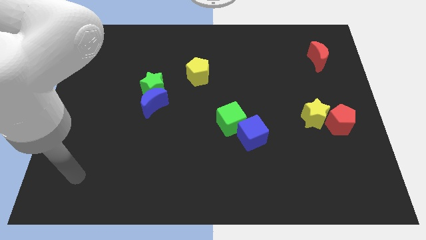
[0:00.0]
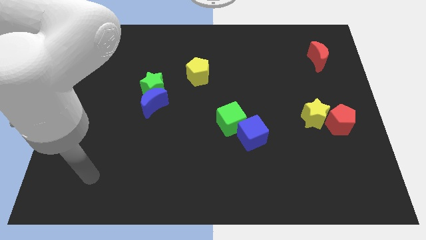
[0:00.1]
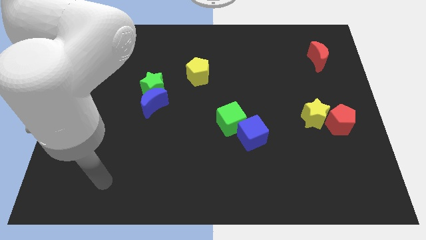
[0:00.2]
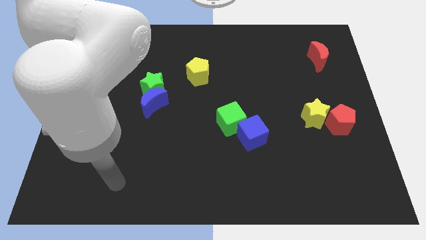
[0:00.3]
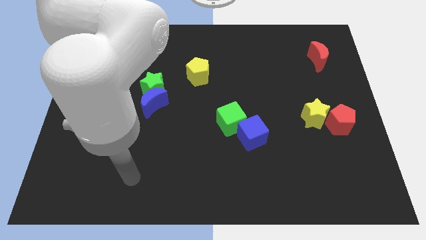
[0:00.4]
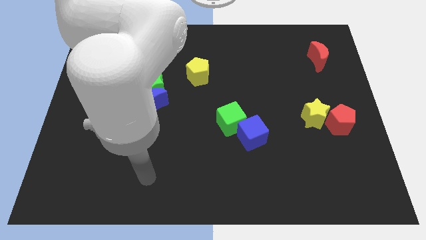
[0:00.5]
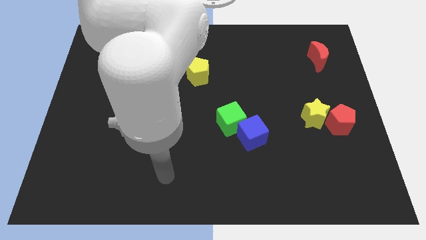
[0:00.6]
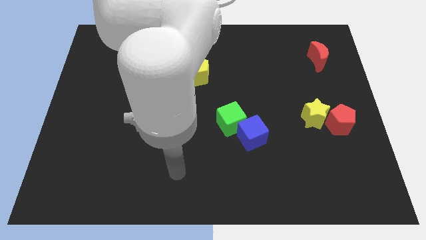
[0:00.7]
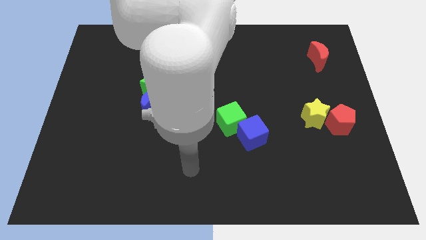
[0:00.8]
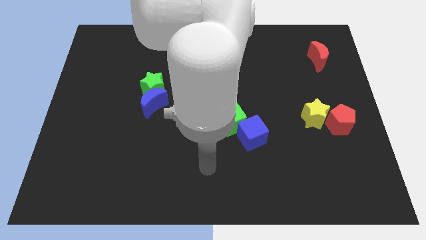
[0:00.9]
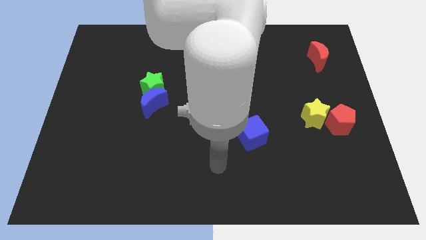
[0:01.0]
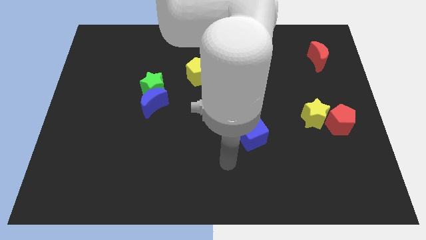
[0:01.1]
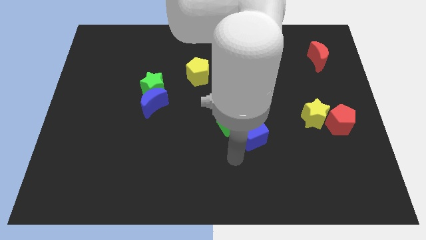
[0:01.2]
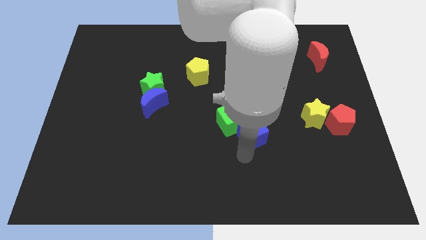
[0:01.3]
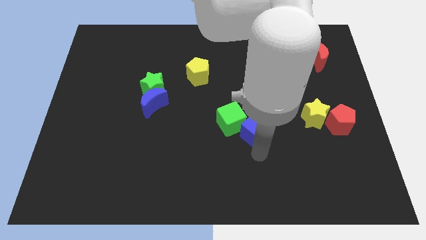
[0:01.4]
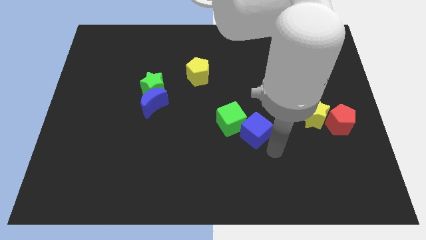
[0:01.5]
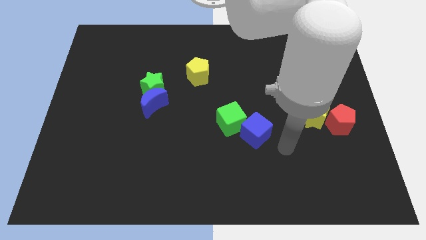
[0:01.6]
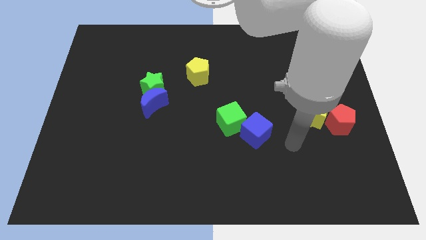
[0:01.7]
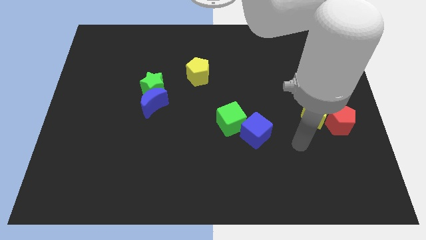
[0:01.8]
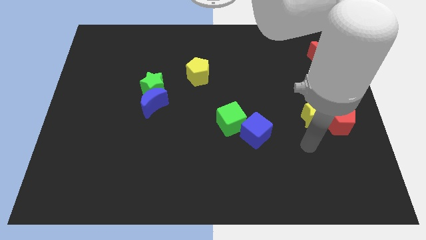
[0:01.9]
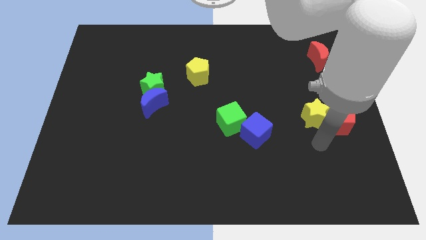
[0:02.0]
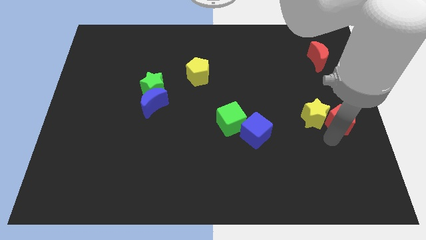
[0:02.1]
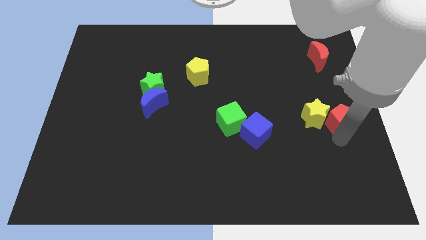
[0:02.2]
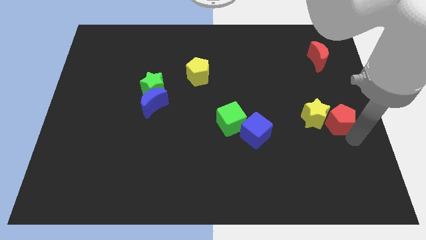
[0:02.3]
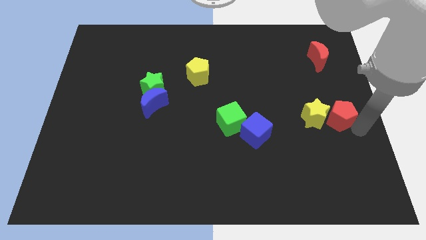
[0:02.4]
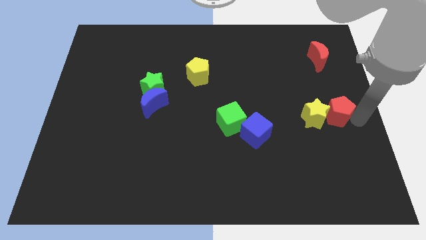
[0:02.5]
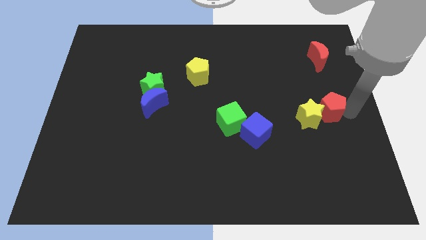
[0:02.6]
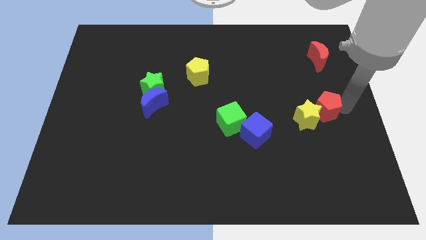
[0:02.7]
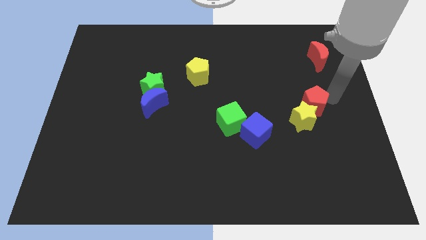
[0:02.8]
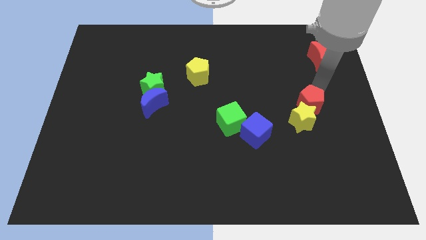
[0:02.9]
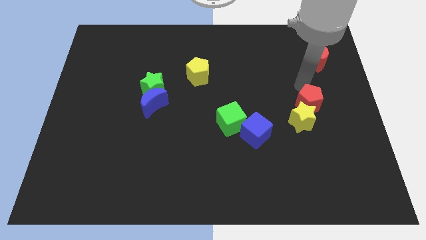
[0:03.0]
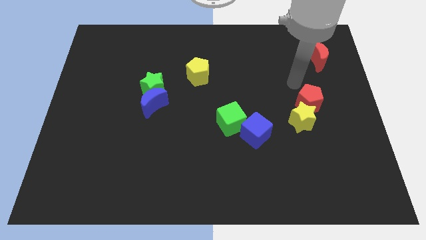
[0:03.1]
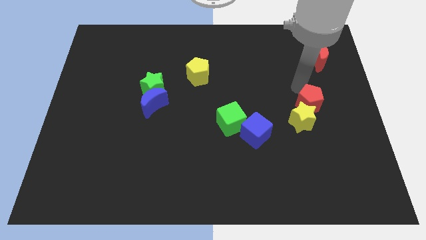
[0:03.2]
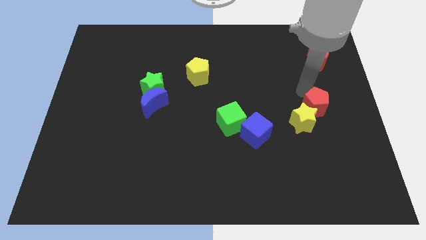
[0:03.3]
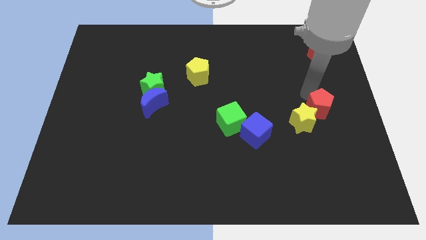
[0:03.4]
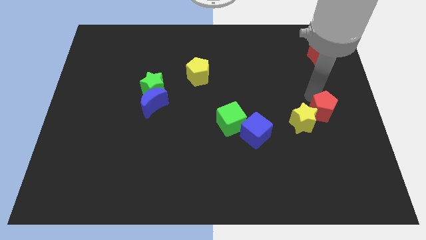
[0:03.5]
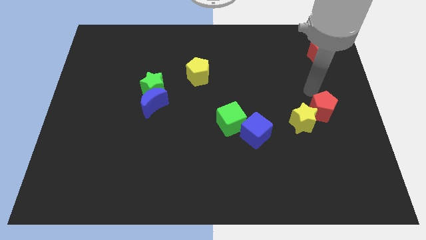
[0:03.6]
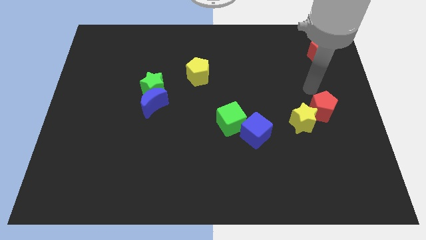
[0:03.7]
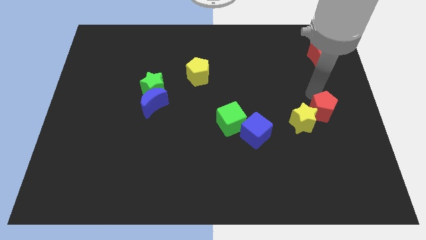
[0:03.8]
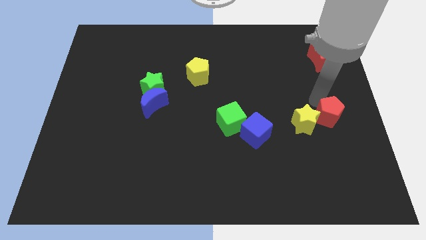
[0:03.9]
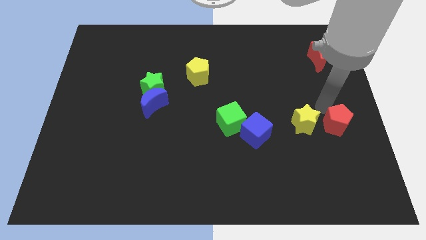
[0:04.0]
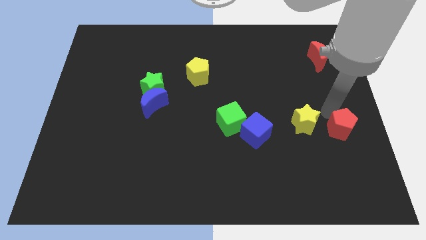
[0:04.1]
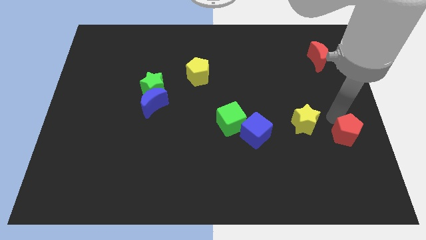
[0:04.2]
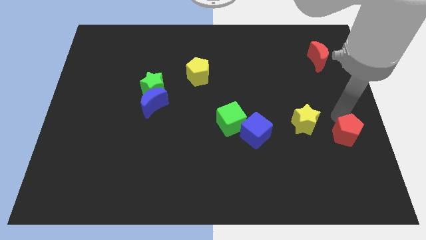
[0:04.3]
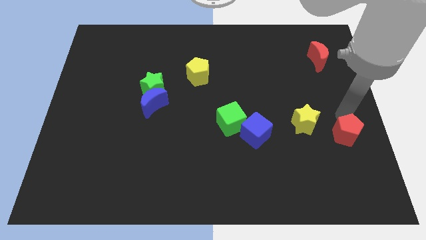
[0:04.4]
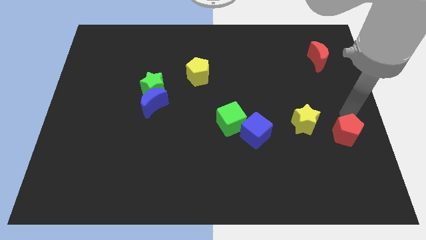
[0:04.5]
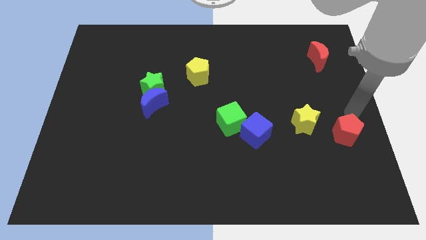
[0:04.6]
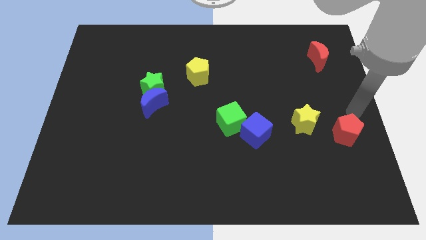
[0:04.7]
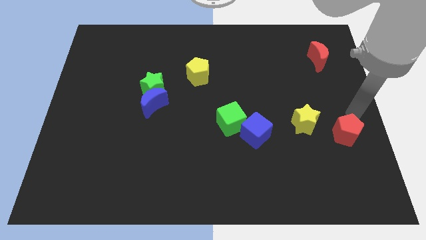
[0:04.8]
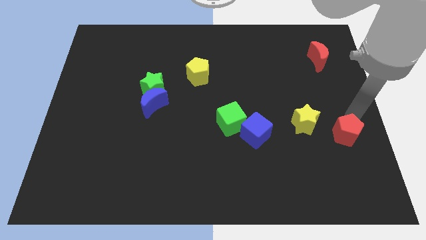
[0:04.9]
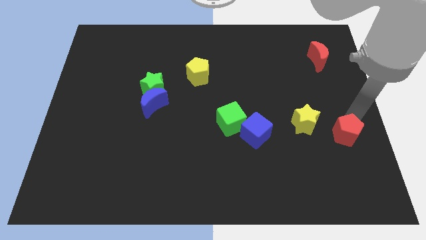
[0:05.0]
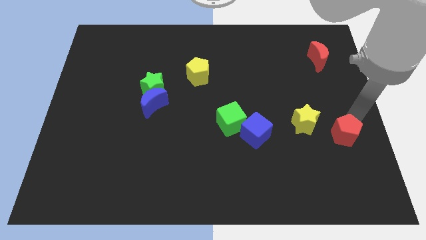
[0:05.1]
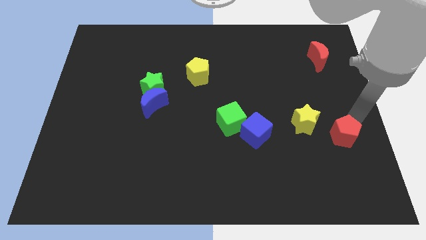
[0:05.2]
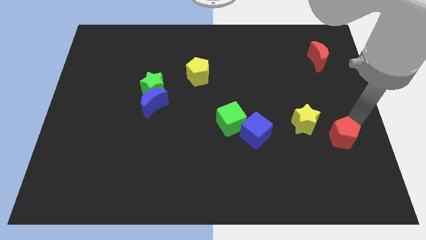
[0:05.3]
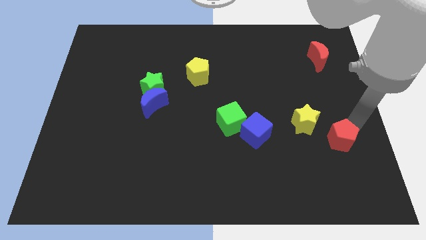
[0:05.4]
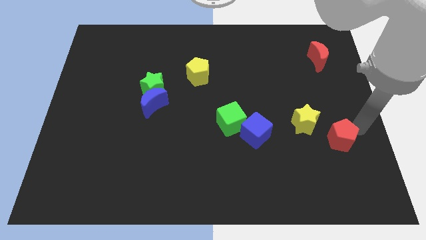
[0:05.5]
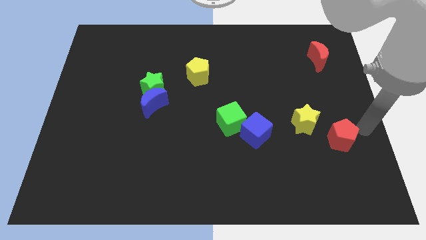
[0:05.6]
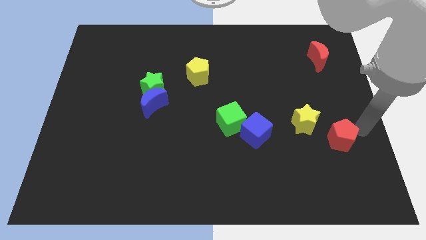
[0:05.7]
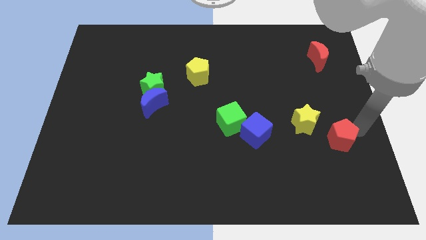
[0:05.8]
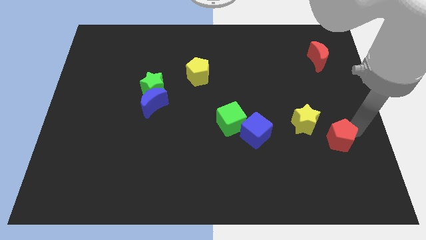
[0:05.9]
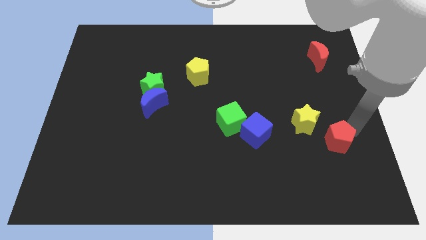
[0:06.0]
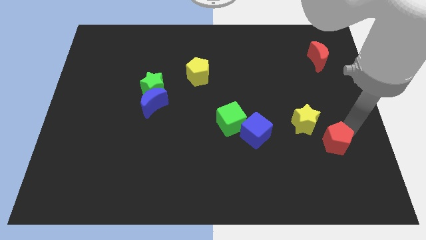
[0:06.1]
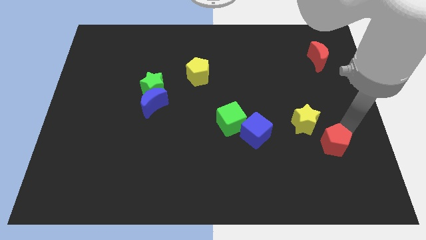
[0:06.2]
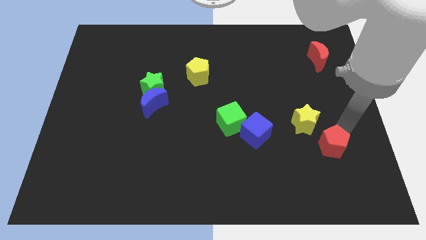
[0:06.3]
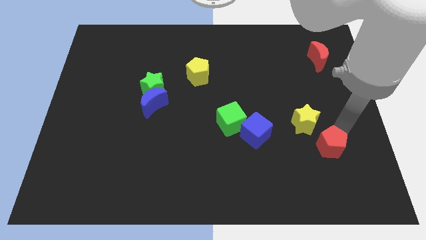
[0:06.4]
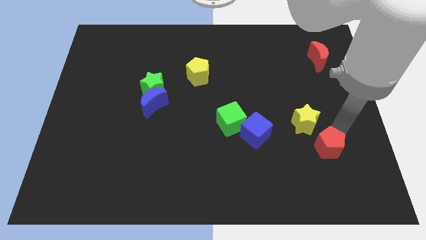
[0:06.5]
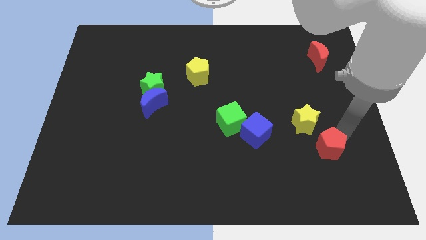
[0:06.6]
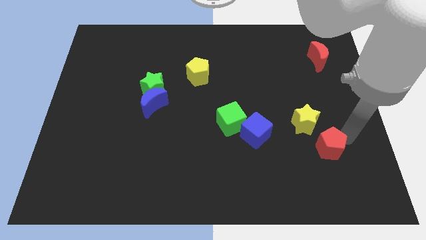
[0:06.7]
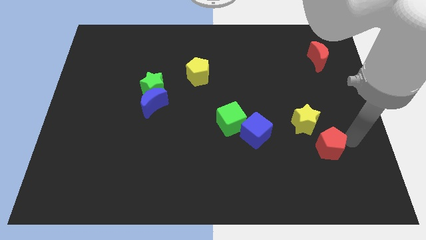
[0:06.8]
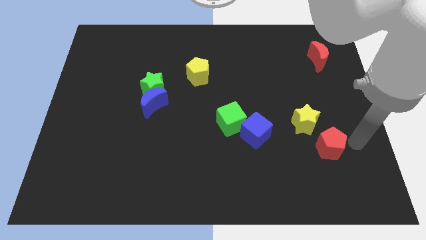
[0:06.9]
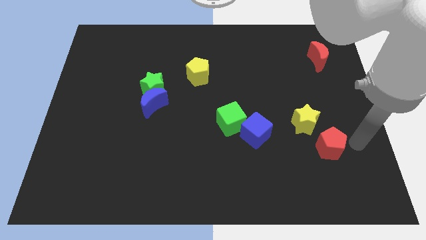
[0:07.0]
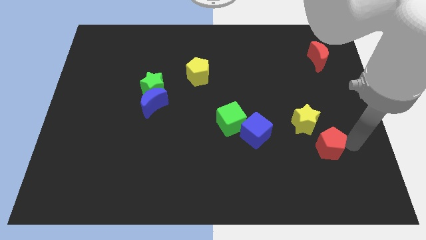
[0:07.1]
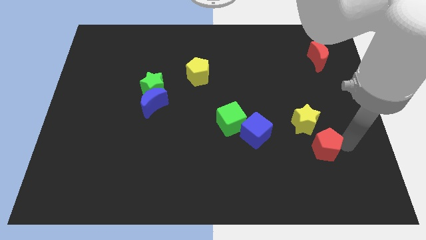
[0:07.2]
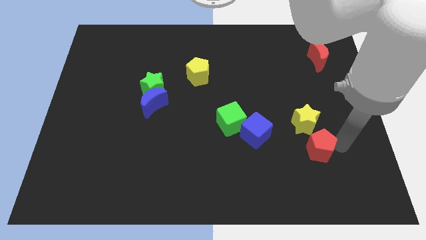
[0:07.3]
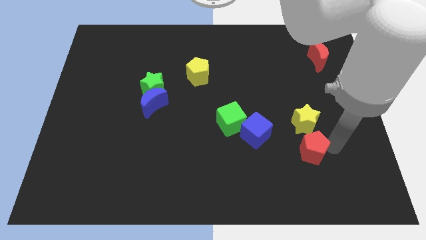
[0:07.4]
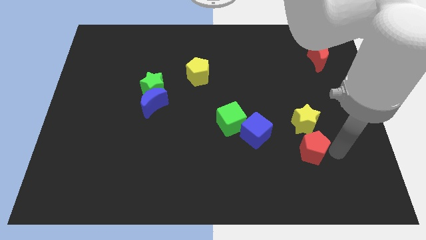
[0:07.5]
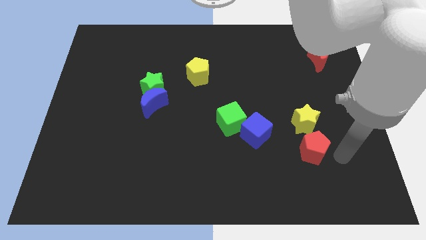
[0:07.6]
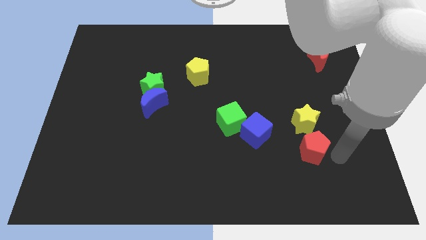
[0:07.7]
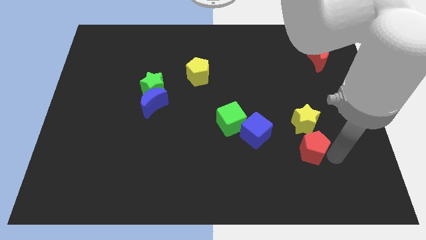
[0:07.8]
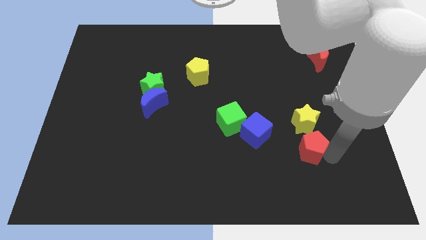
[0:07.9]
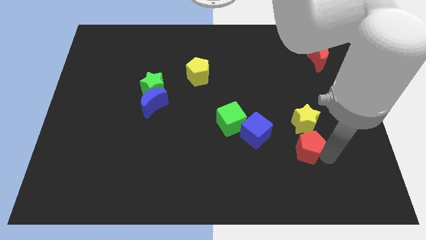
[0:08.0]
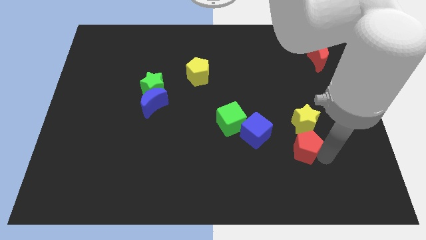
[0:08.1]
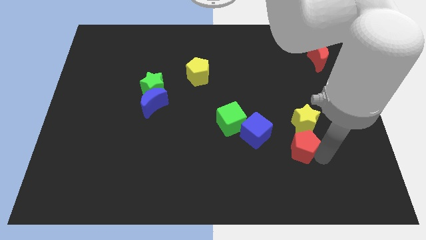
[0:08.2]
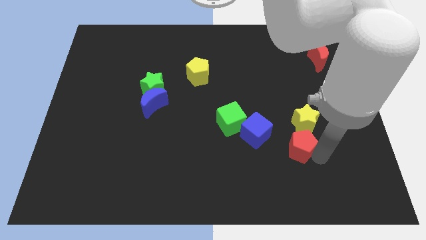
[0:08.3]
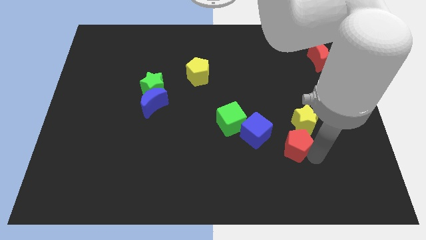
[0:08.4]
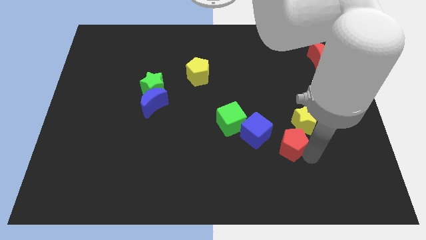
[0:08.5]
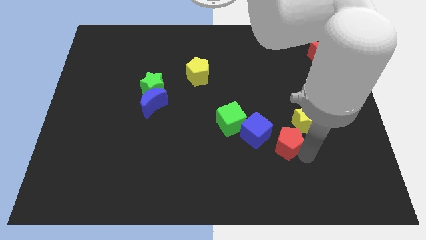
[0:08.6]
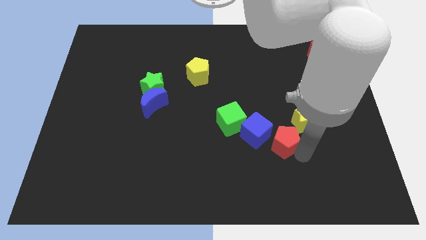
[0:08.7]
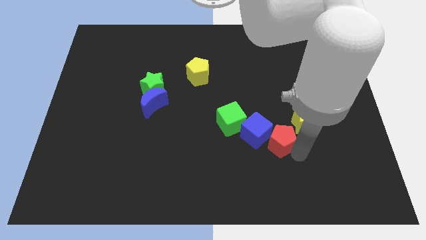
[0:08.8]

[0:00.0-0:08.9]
move the red pentagon close to the blue cube
